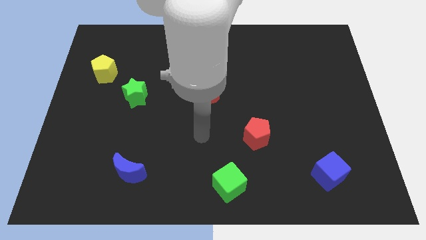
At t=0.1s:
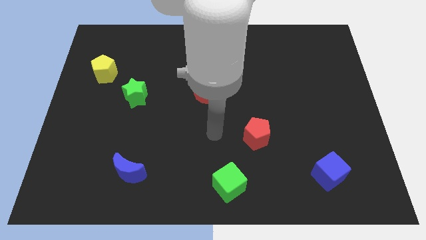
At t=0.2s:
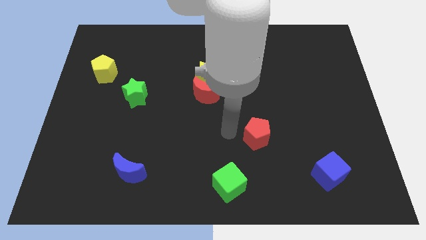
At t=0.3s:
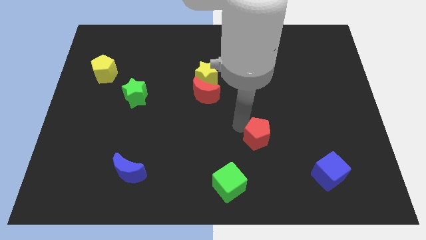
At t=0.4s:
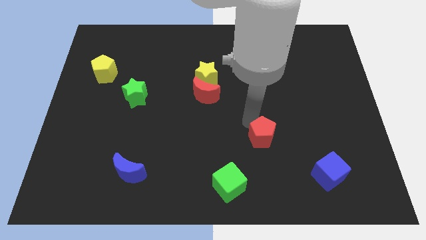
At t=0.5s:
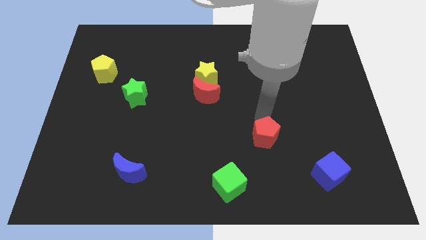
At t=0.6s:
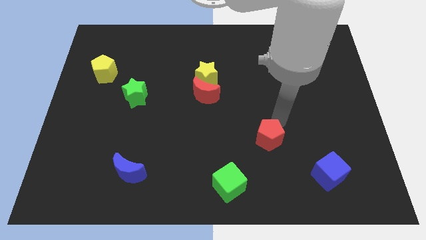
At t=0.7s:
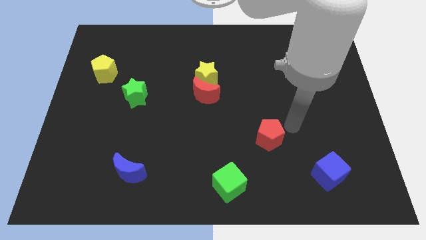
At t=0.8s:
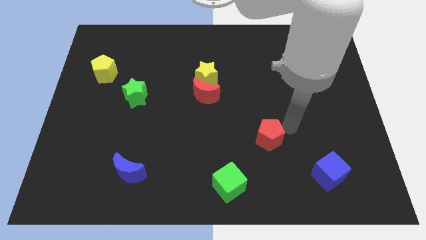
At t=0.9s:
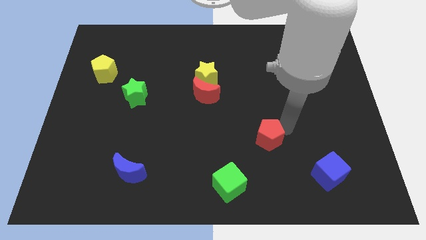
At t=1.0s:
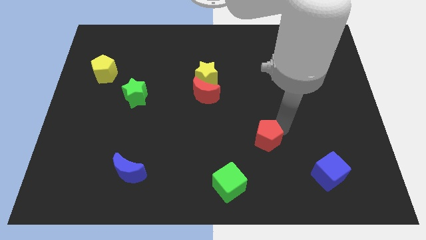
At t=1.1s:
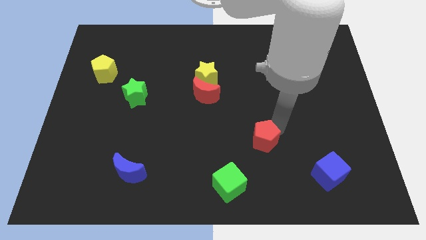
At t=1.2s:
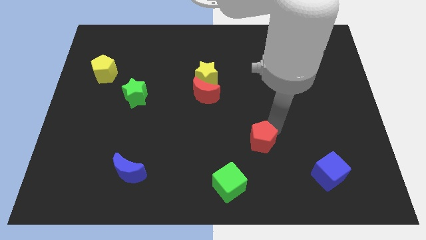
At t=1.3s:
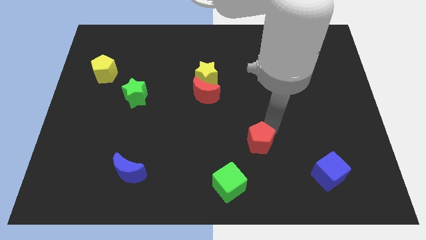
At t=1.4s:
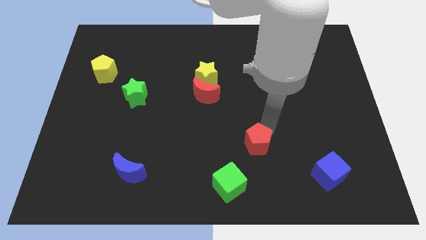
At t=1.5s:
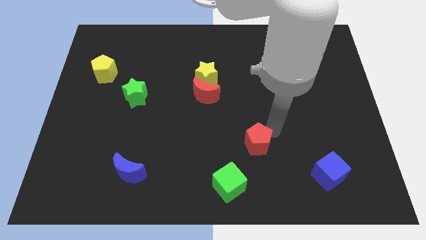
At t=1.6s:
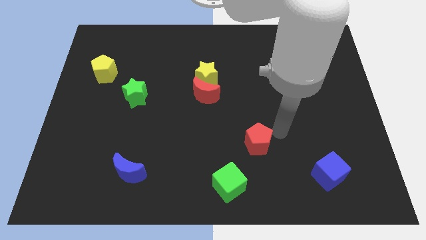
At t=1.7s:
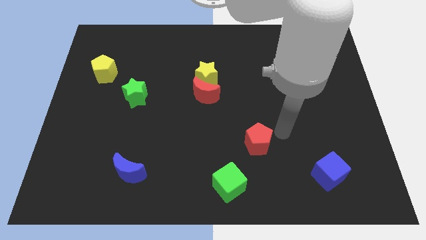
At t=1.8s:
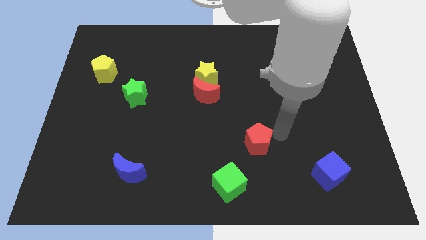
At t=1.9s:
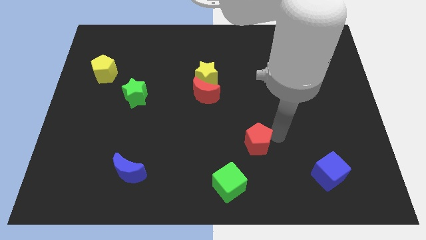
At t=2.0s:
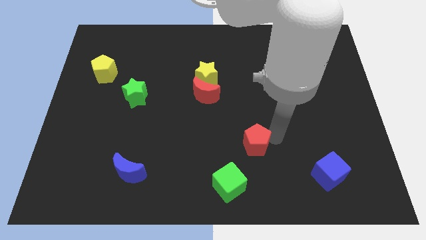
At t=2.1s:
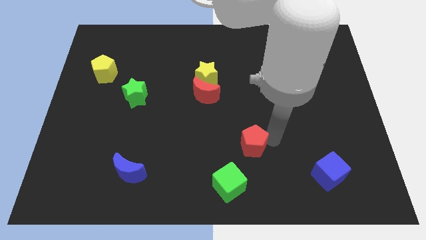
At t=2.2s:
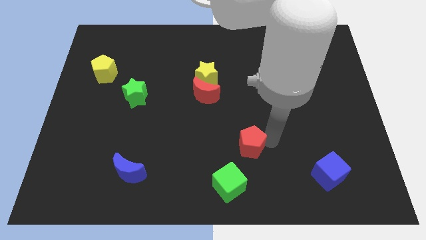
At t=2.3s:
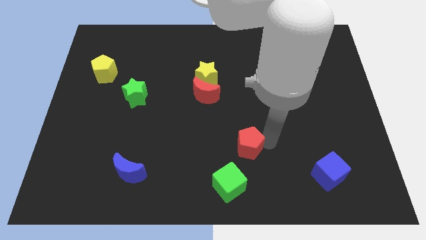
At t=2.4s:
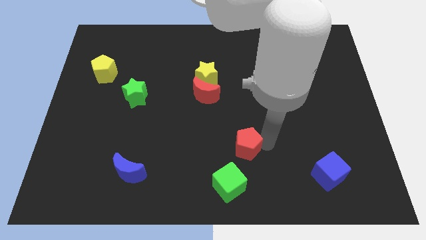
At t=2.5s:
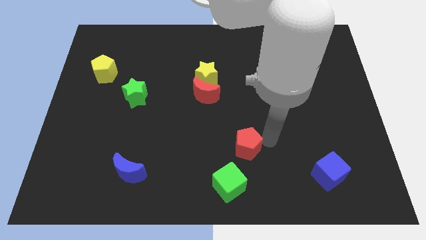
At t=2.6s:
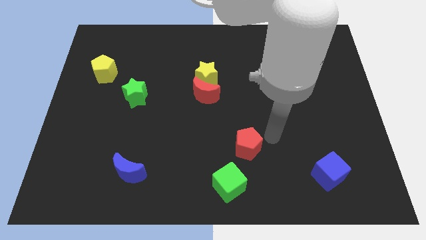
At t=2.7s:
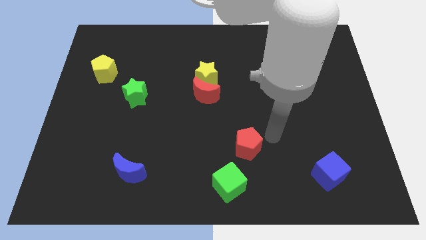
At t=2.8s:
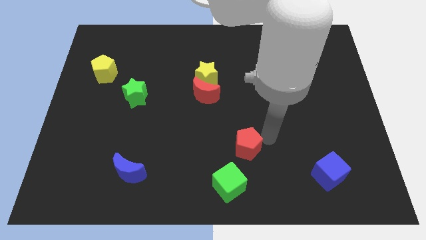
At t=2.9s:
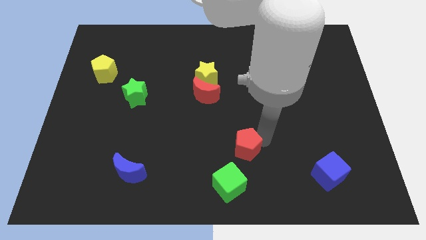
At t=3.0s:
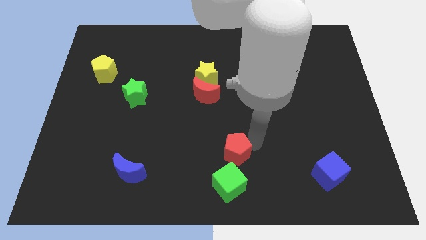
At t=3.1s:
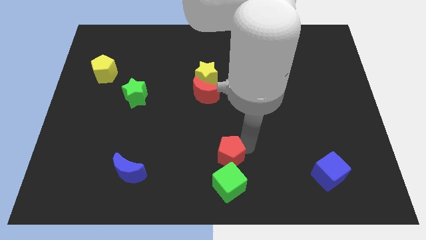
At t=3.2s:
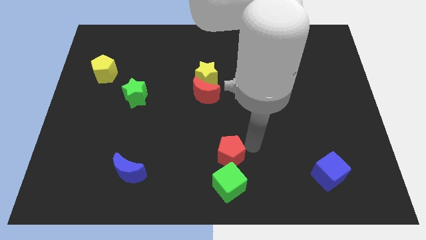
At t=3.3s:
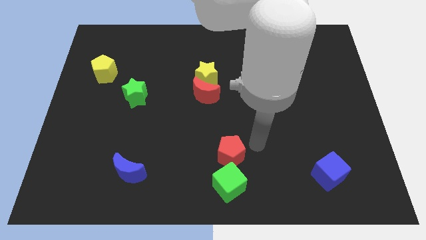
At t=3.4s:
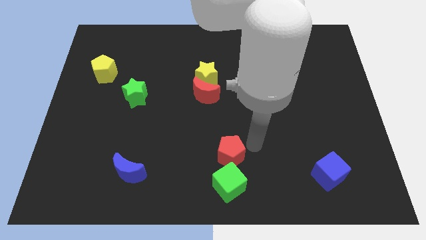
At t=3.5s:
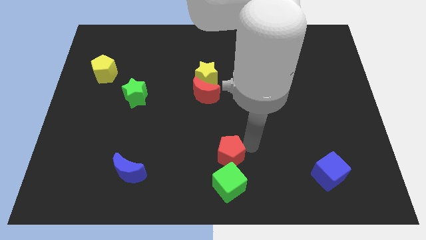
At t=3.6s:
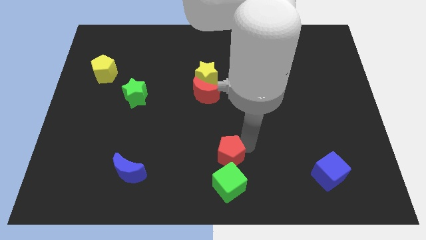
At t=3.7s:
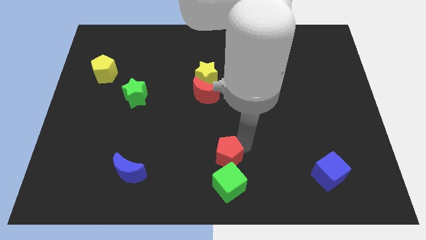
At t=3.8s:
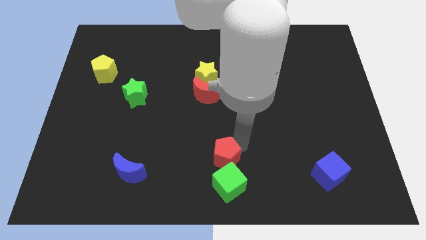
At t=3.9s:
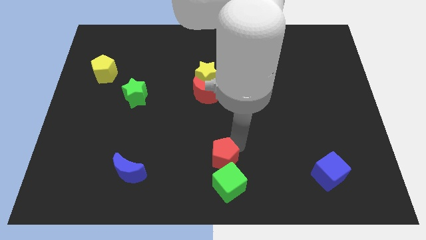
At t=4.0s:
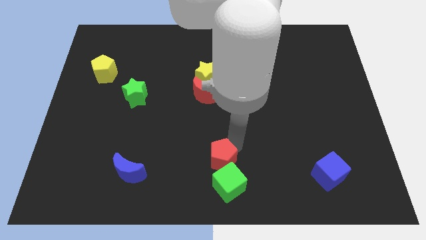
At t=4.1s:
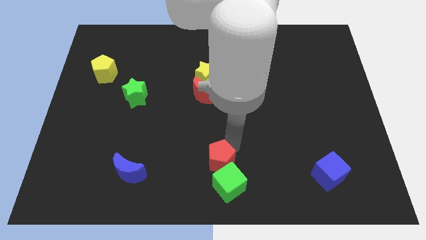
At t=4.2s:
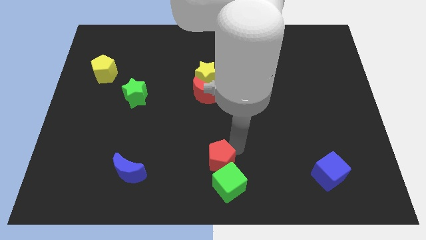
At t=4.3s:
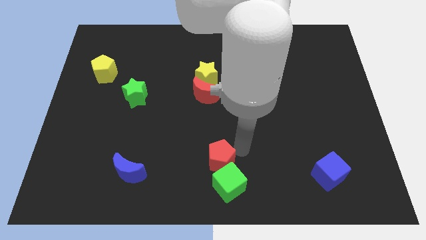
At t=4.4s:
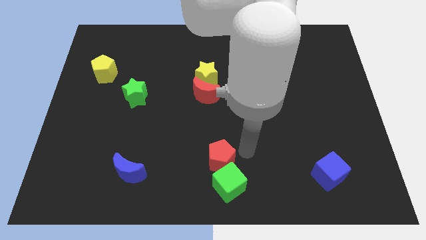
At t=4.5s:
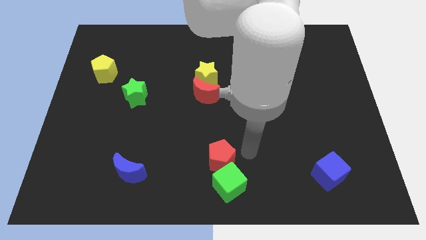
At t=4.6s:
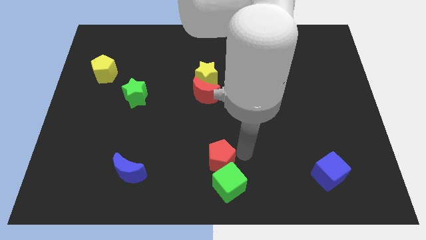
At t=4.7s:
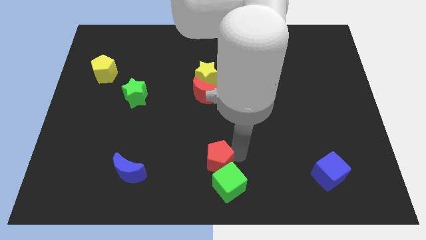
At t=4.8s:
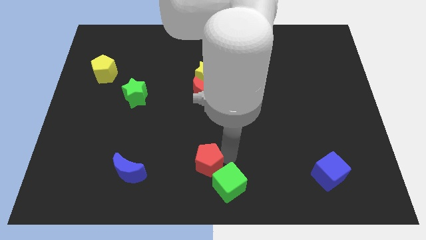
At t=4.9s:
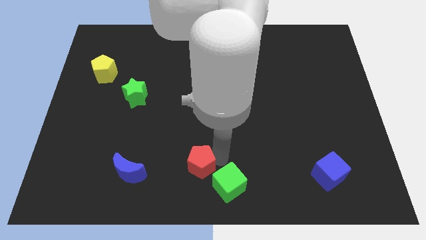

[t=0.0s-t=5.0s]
put the red pentagon right of the blue moon

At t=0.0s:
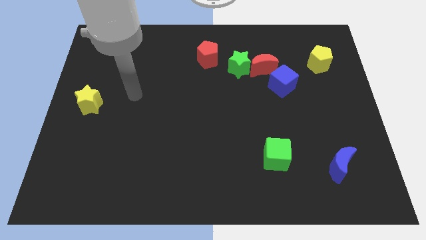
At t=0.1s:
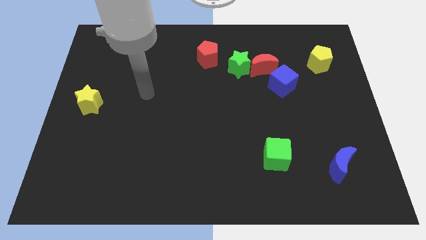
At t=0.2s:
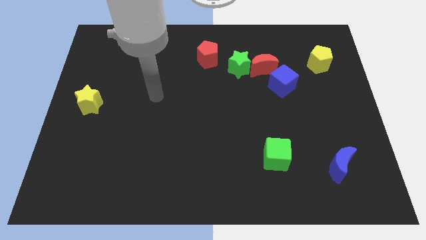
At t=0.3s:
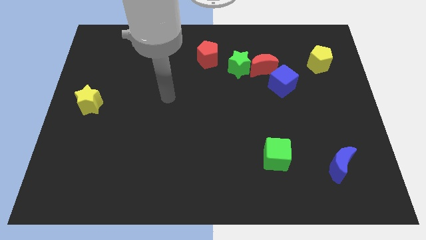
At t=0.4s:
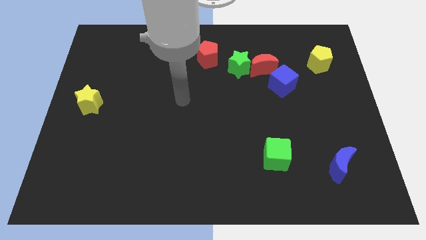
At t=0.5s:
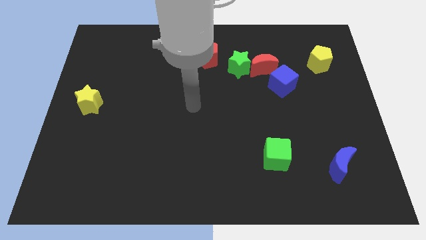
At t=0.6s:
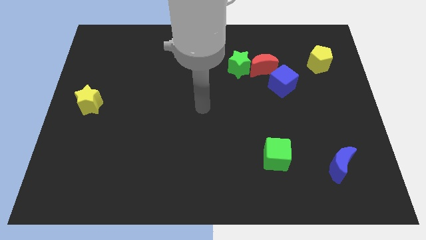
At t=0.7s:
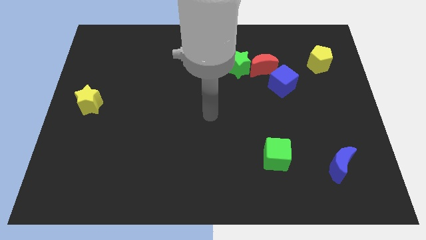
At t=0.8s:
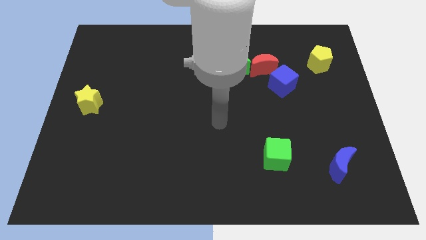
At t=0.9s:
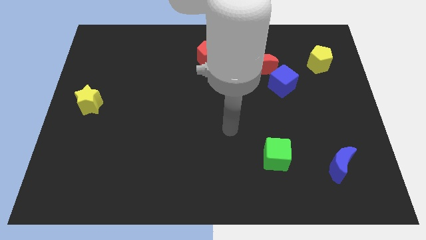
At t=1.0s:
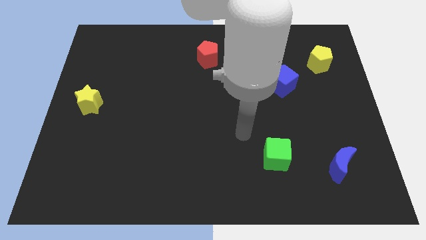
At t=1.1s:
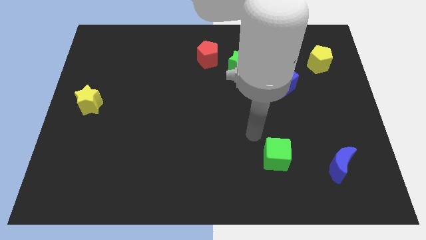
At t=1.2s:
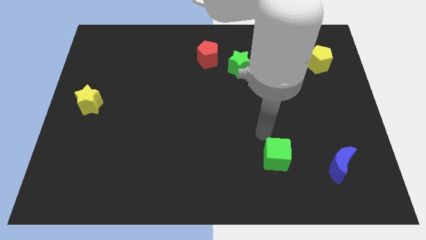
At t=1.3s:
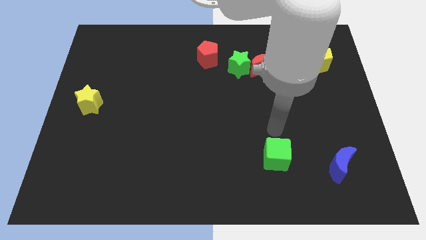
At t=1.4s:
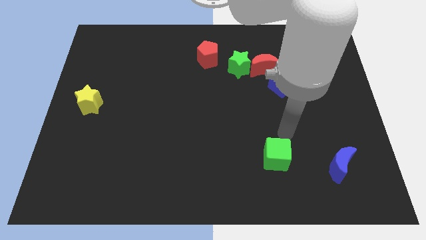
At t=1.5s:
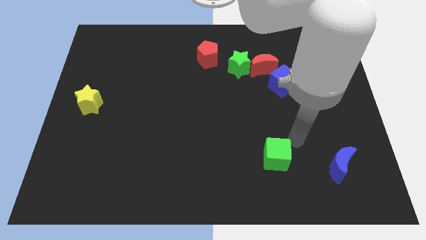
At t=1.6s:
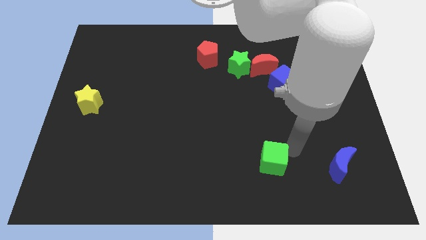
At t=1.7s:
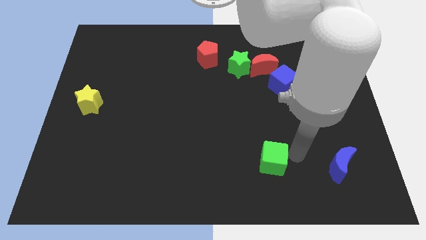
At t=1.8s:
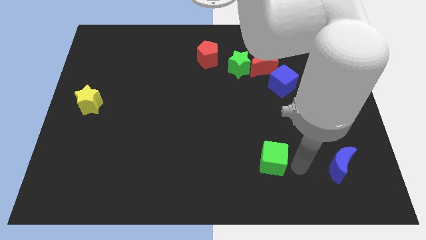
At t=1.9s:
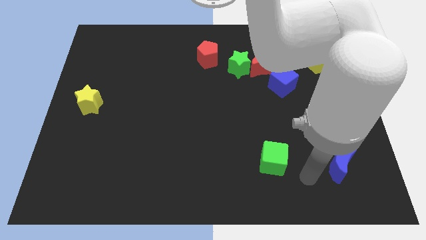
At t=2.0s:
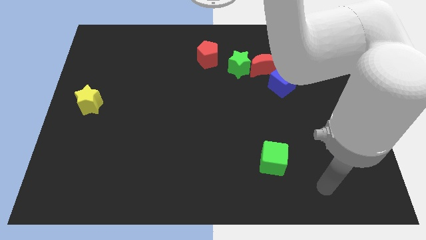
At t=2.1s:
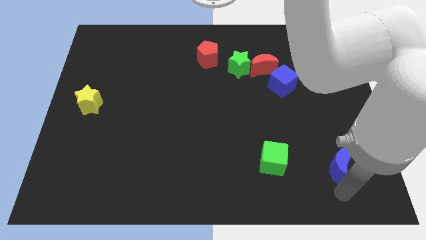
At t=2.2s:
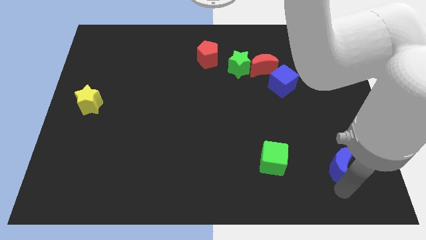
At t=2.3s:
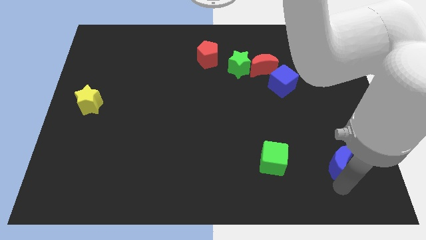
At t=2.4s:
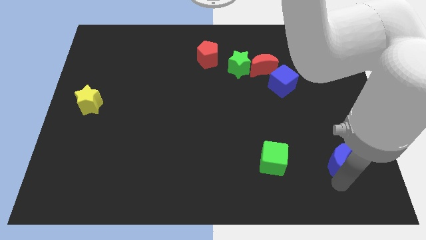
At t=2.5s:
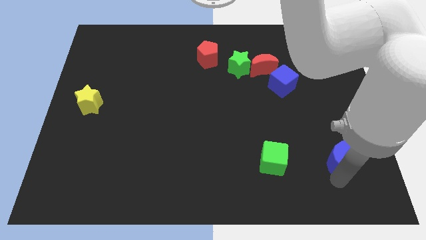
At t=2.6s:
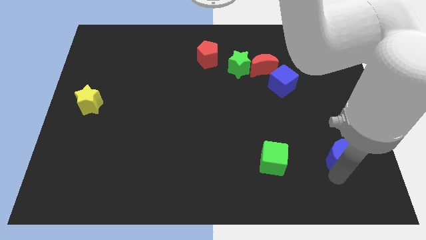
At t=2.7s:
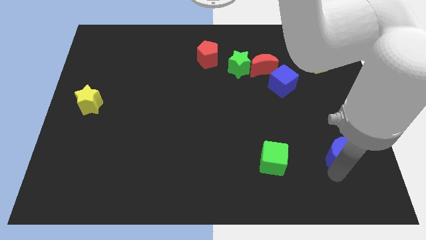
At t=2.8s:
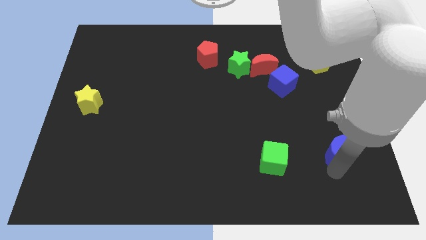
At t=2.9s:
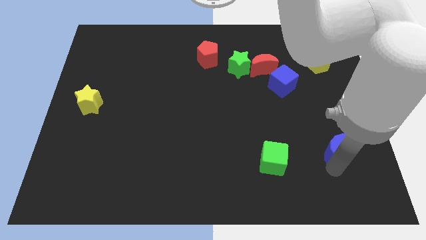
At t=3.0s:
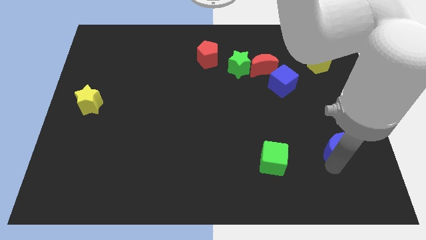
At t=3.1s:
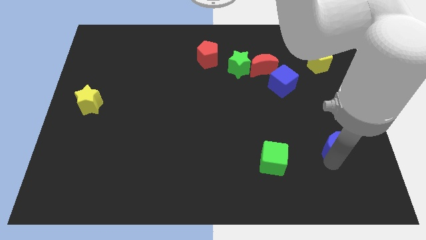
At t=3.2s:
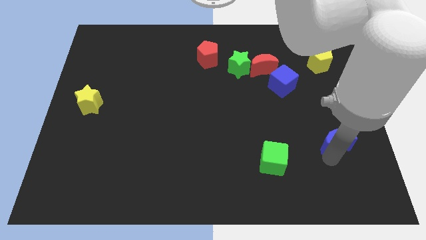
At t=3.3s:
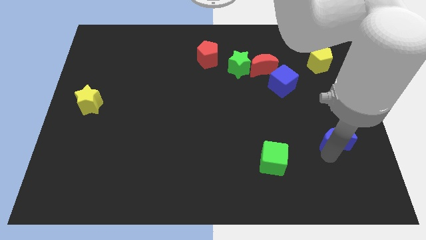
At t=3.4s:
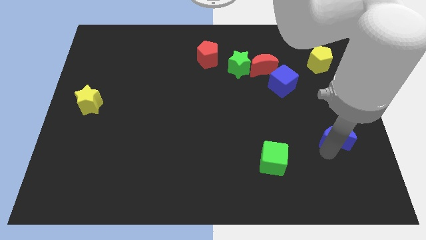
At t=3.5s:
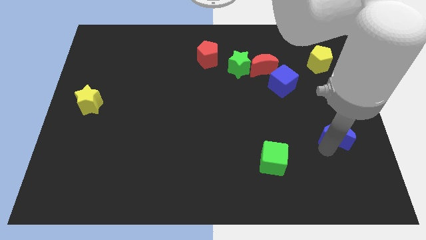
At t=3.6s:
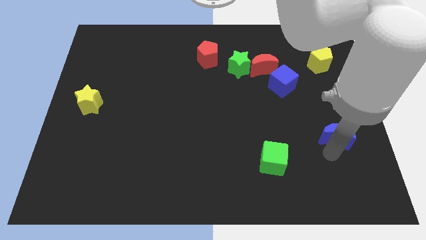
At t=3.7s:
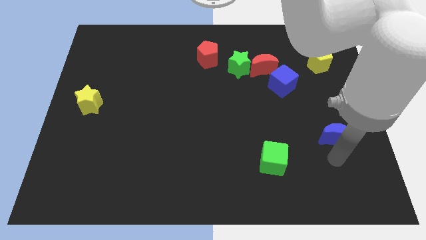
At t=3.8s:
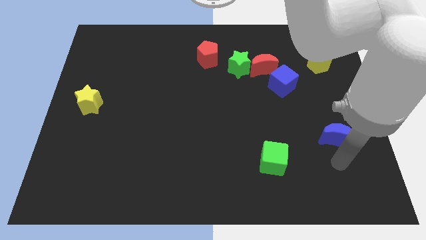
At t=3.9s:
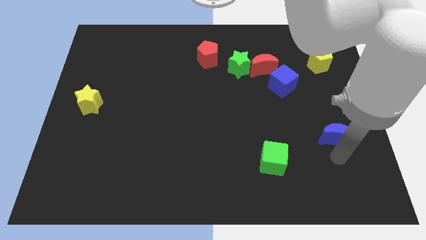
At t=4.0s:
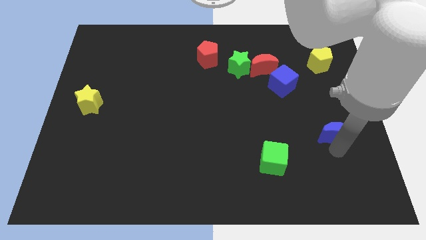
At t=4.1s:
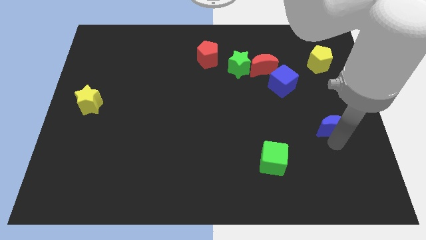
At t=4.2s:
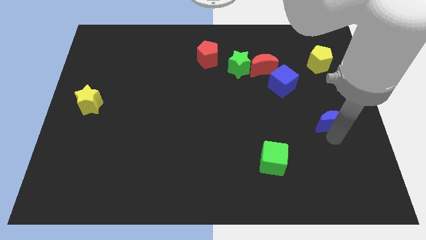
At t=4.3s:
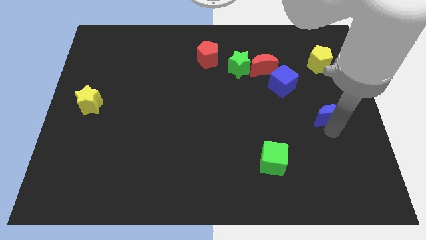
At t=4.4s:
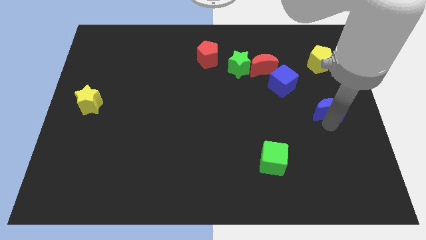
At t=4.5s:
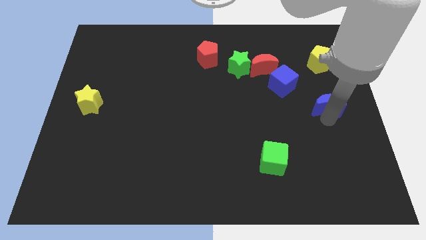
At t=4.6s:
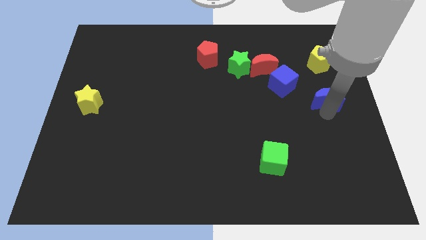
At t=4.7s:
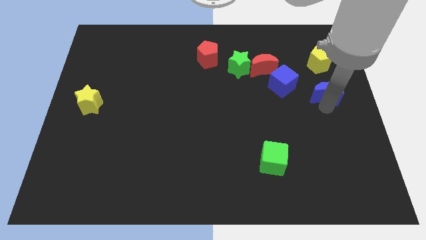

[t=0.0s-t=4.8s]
push the blue moon to the right side of the blue cube
